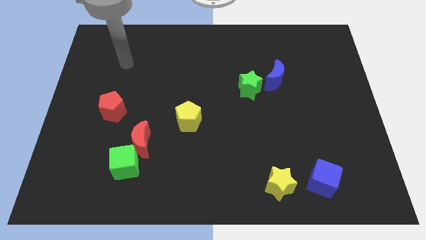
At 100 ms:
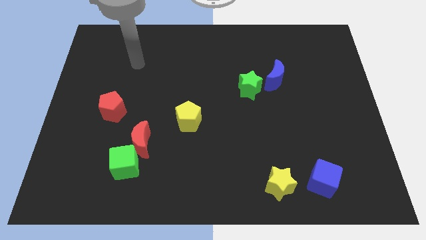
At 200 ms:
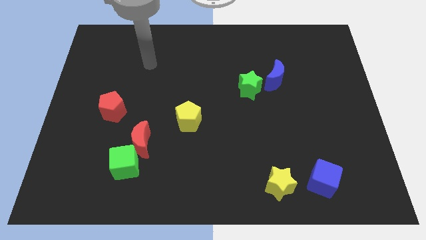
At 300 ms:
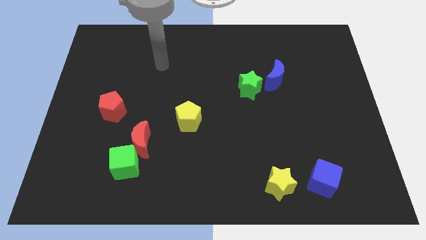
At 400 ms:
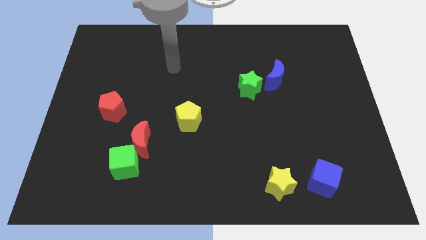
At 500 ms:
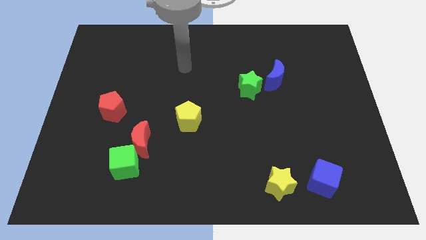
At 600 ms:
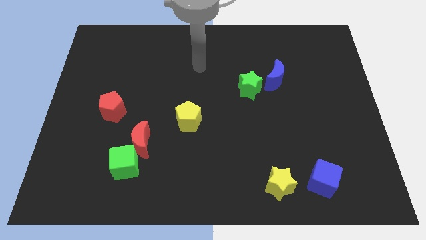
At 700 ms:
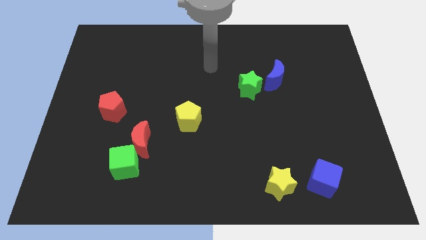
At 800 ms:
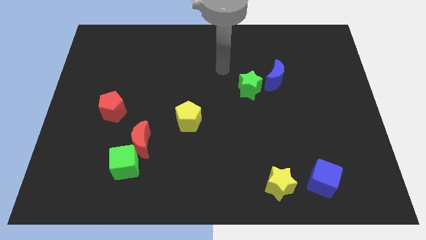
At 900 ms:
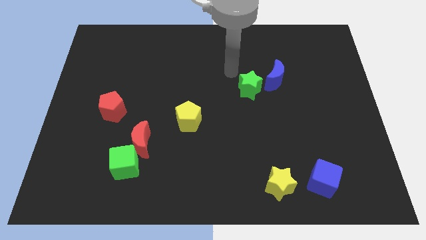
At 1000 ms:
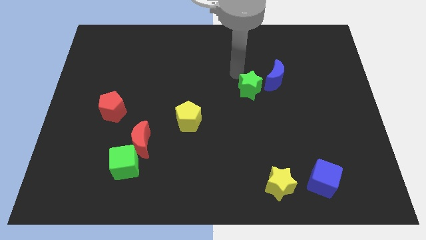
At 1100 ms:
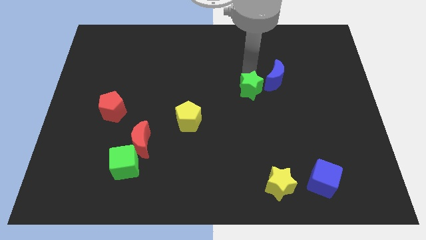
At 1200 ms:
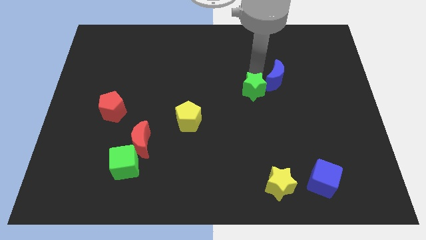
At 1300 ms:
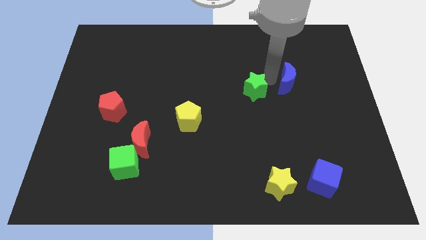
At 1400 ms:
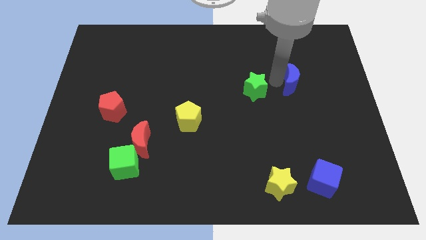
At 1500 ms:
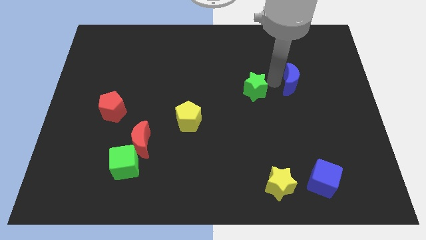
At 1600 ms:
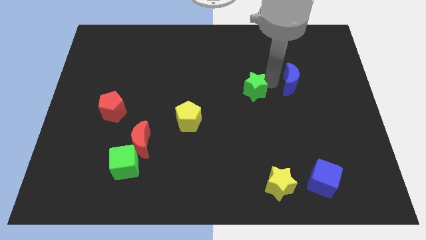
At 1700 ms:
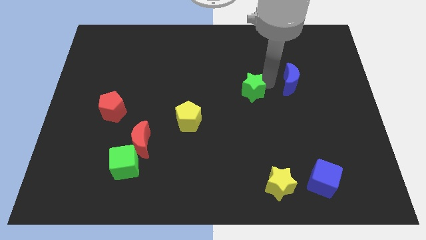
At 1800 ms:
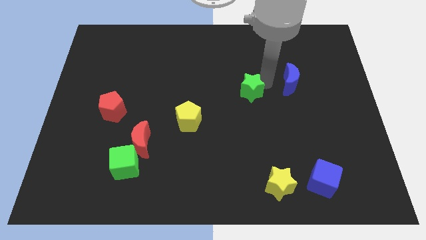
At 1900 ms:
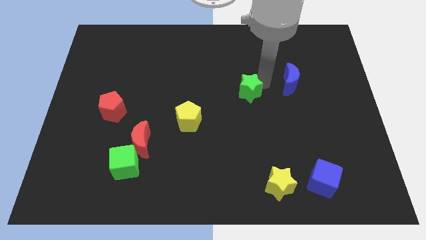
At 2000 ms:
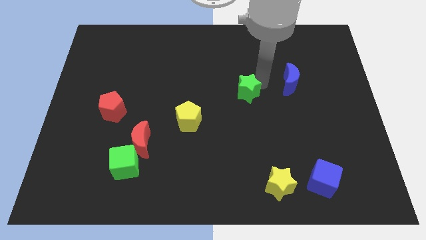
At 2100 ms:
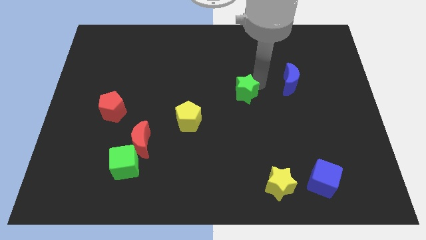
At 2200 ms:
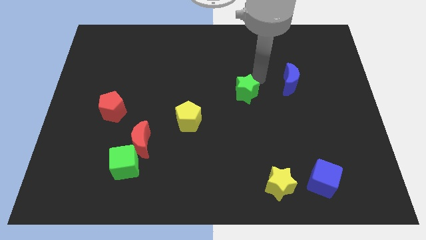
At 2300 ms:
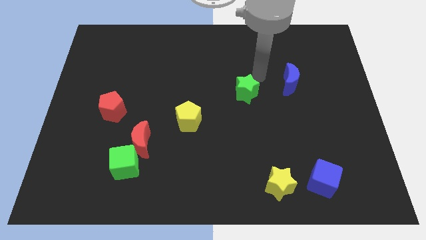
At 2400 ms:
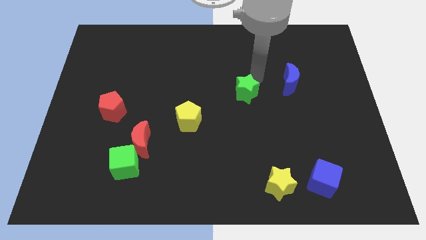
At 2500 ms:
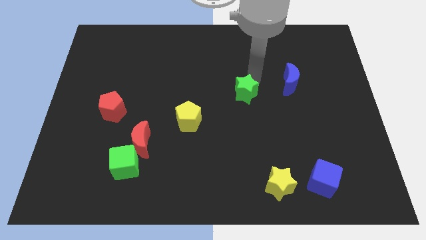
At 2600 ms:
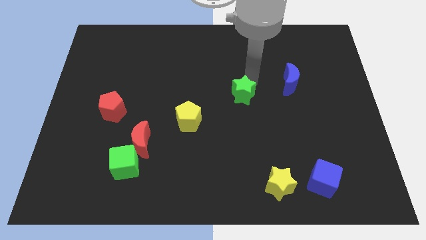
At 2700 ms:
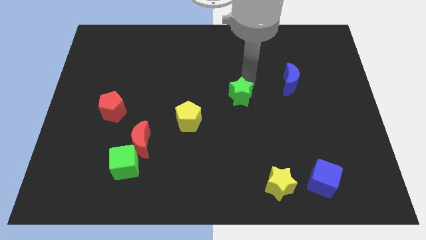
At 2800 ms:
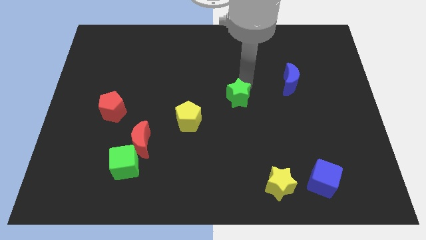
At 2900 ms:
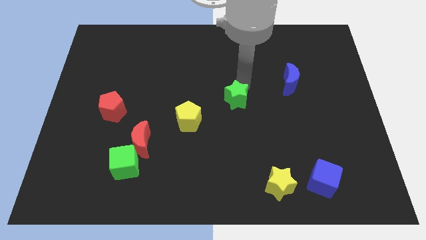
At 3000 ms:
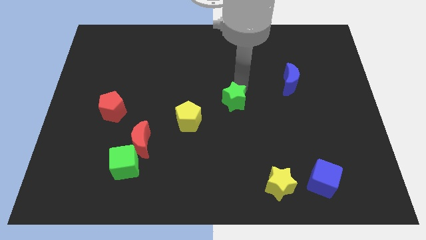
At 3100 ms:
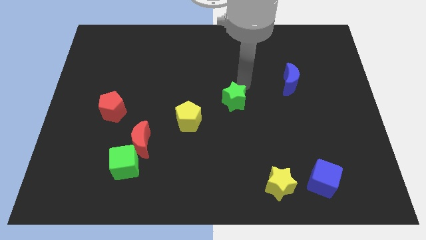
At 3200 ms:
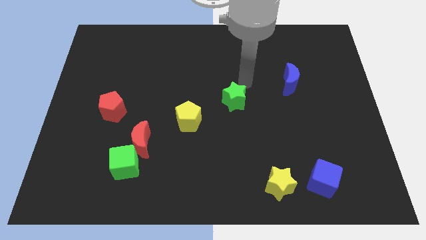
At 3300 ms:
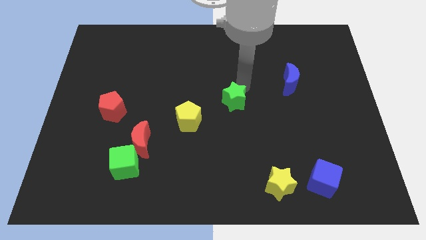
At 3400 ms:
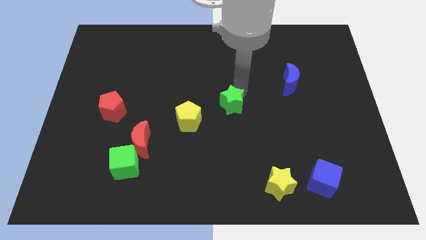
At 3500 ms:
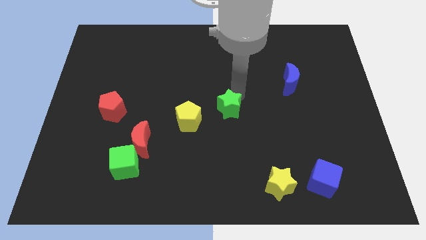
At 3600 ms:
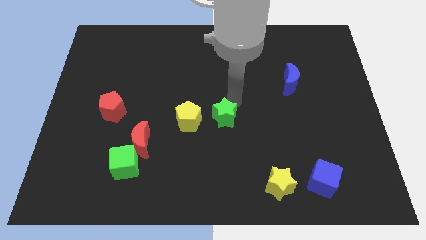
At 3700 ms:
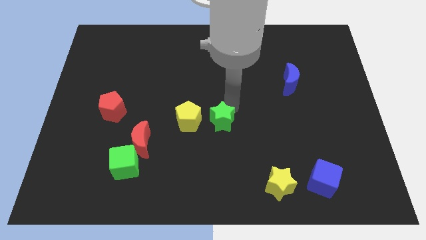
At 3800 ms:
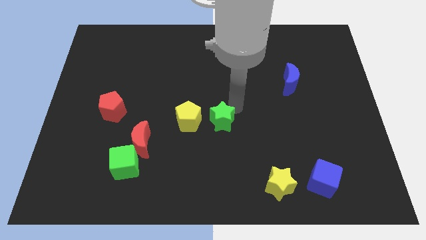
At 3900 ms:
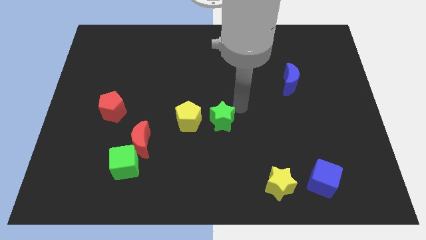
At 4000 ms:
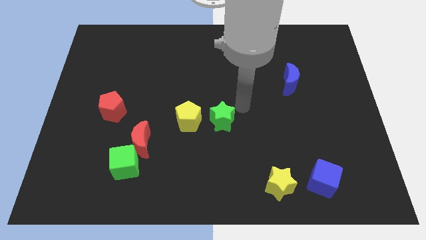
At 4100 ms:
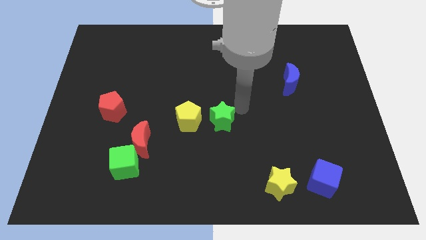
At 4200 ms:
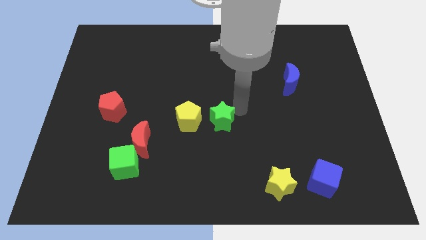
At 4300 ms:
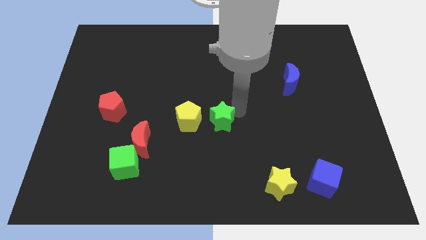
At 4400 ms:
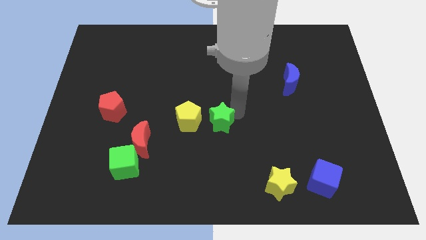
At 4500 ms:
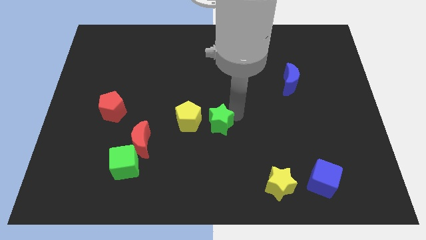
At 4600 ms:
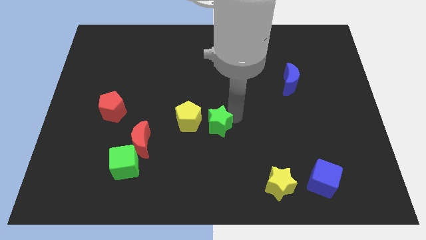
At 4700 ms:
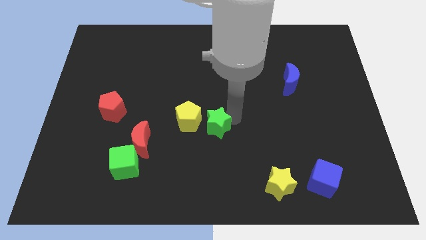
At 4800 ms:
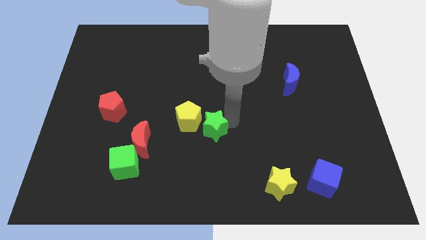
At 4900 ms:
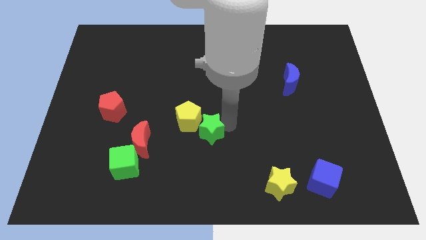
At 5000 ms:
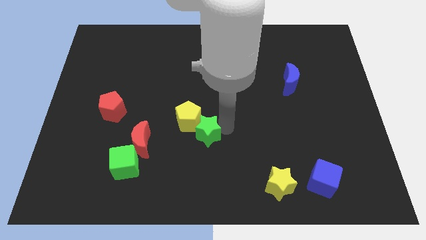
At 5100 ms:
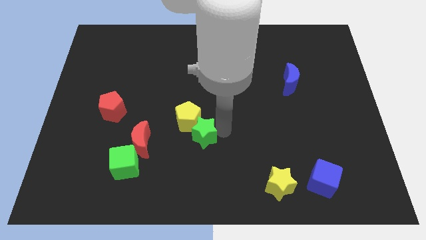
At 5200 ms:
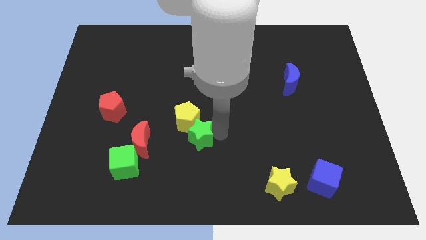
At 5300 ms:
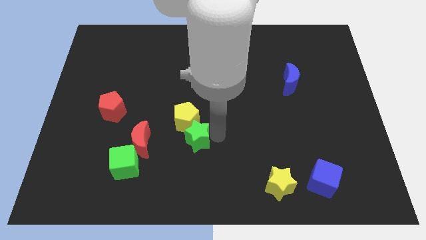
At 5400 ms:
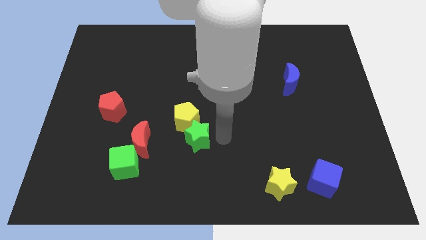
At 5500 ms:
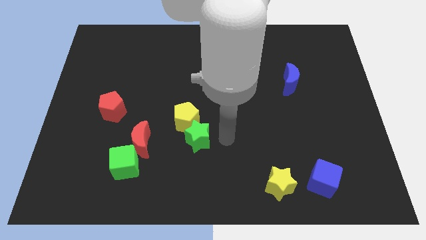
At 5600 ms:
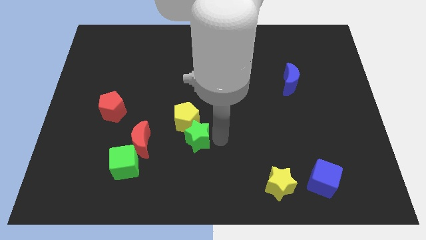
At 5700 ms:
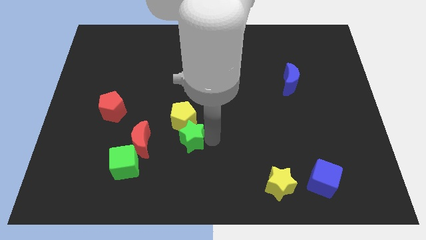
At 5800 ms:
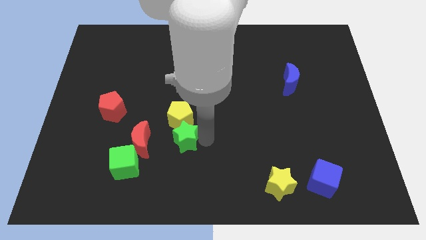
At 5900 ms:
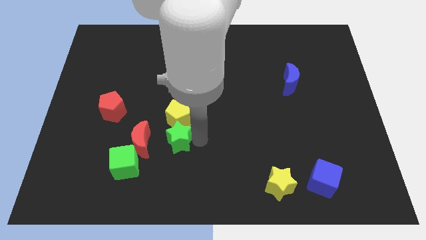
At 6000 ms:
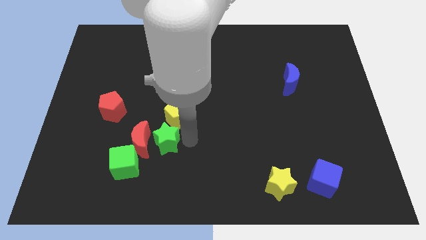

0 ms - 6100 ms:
move the green star to the red moon

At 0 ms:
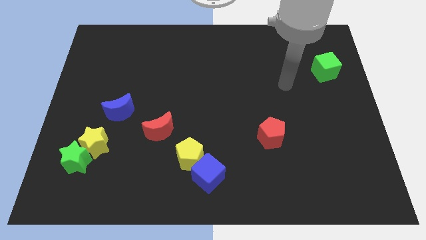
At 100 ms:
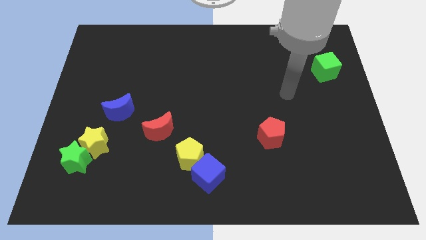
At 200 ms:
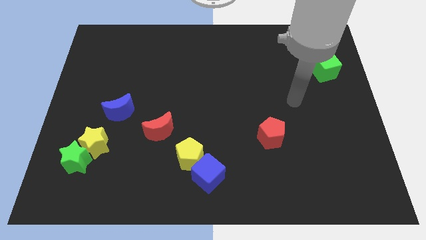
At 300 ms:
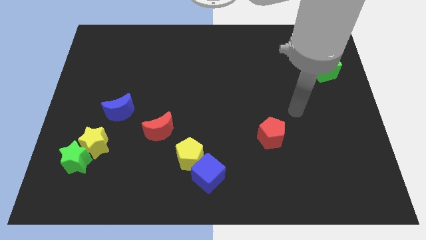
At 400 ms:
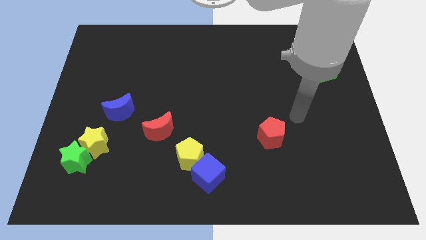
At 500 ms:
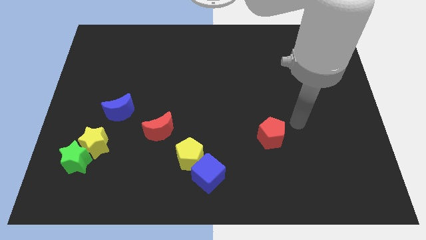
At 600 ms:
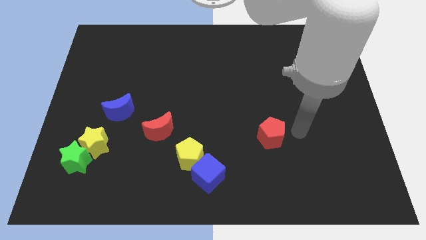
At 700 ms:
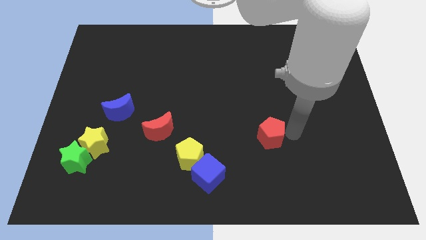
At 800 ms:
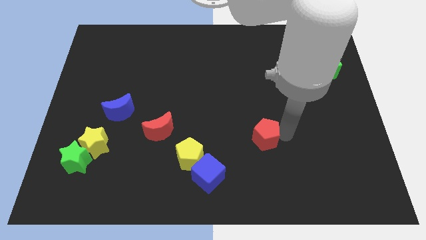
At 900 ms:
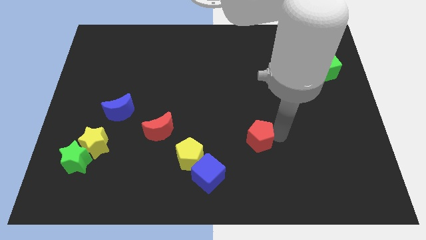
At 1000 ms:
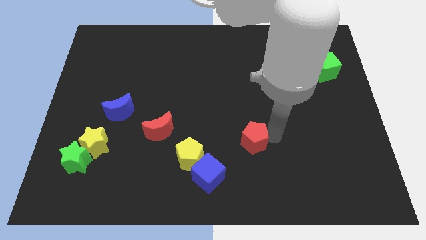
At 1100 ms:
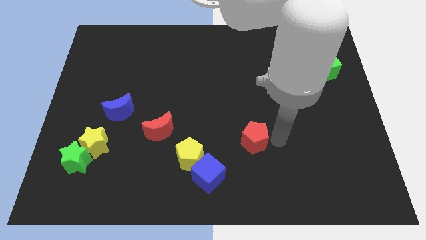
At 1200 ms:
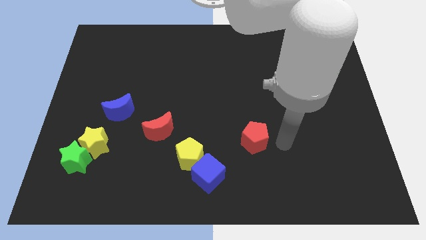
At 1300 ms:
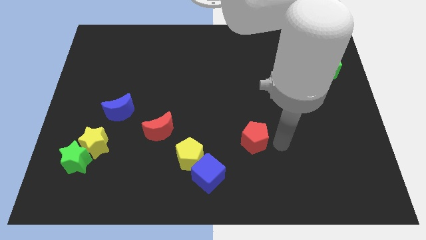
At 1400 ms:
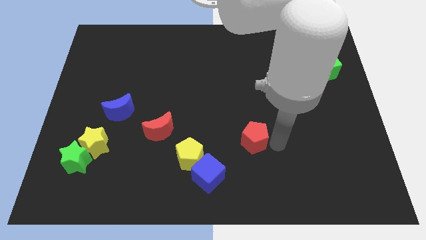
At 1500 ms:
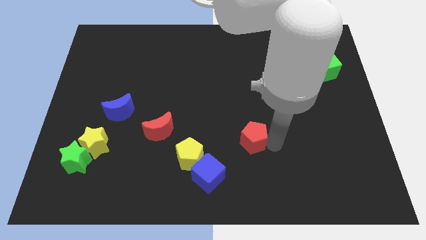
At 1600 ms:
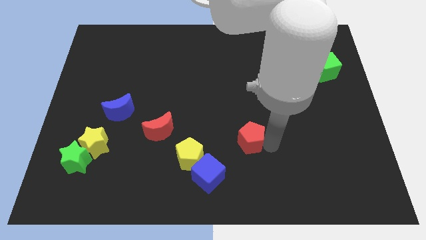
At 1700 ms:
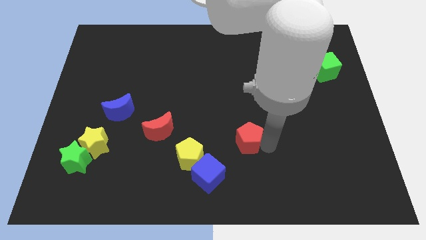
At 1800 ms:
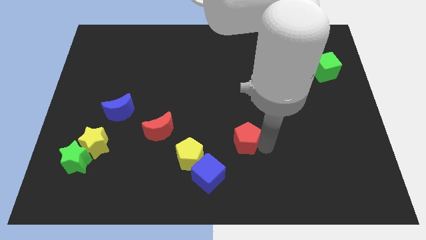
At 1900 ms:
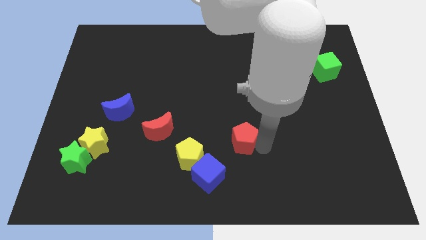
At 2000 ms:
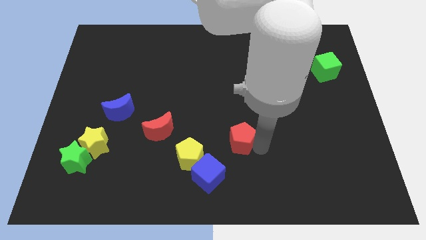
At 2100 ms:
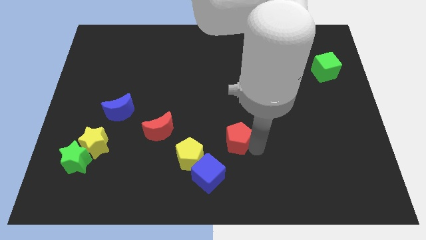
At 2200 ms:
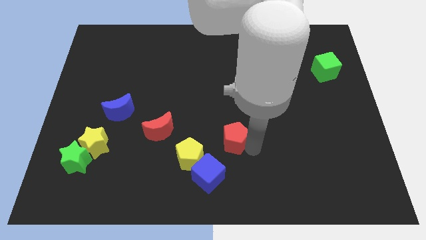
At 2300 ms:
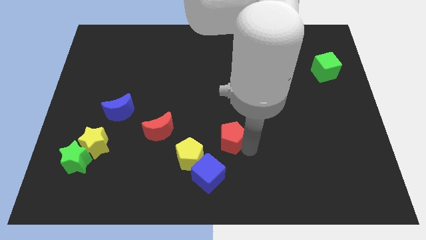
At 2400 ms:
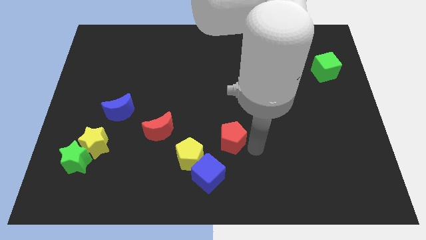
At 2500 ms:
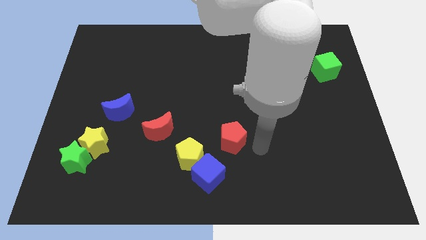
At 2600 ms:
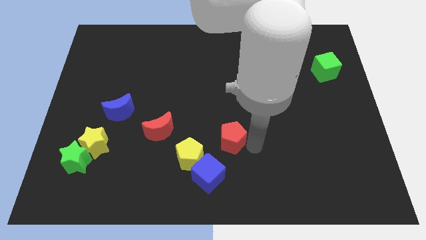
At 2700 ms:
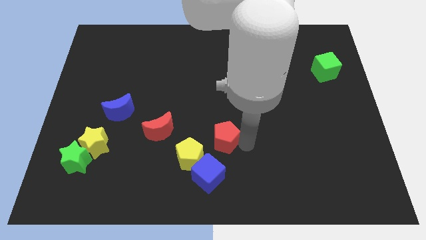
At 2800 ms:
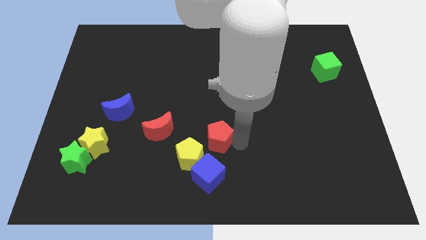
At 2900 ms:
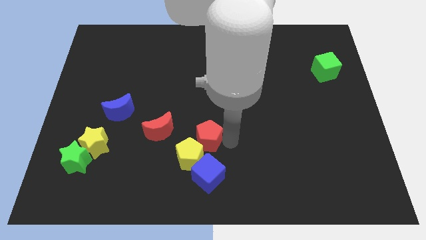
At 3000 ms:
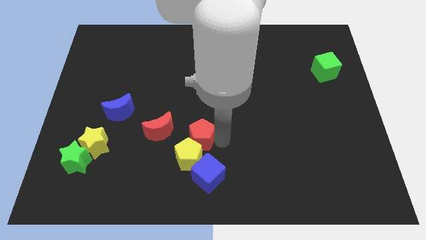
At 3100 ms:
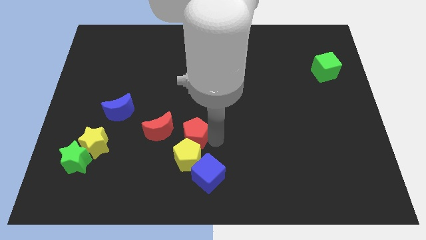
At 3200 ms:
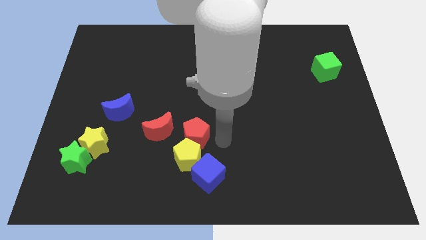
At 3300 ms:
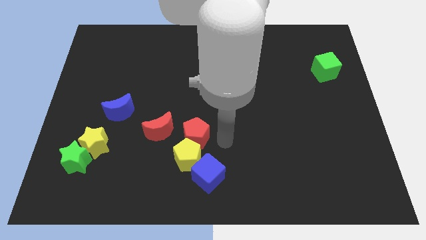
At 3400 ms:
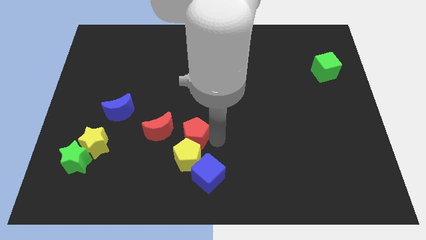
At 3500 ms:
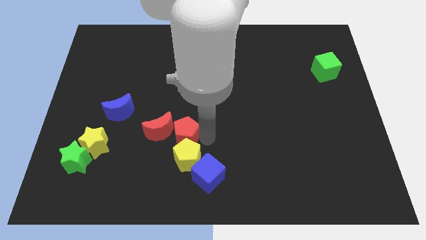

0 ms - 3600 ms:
put the red pentagon towards the red moon
